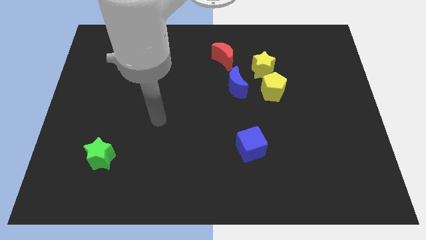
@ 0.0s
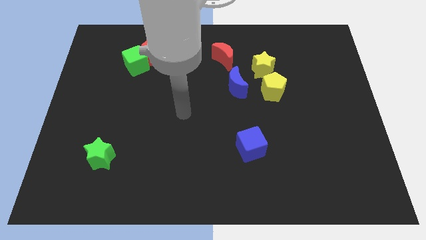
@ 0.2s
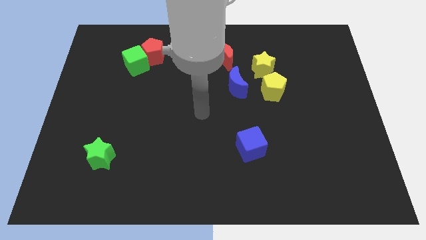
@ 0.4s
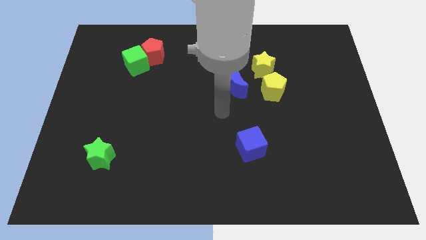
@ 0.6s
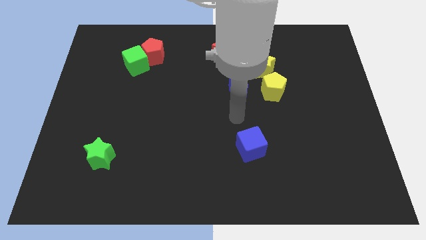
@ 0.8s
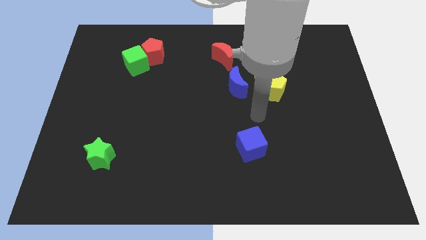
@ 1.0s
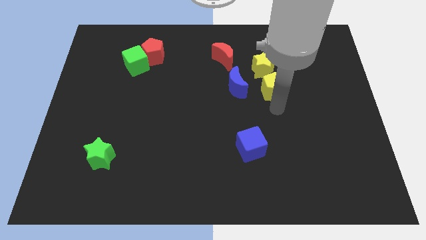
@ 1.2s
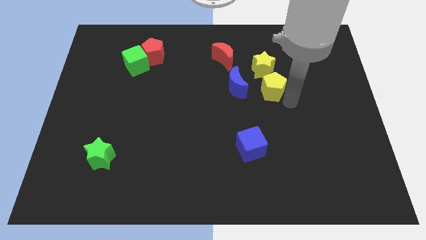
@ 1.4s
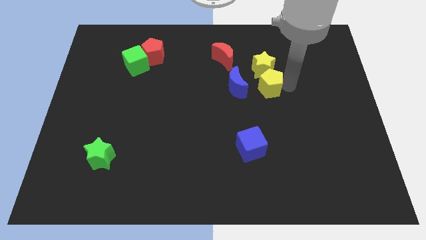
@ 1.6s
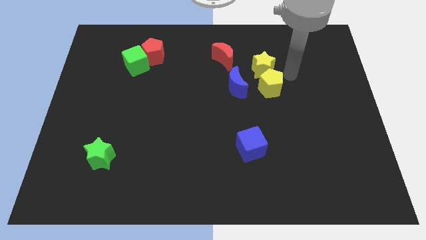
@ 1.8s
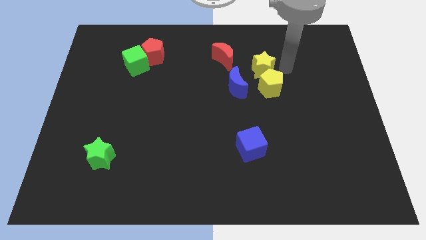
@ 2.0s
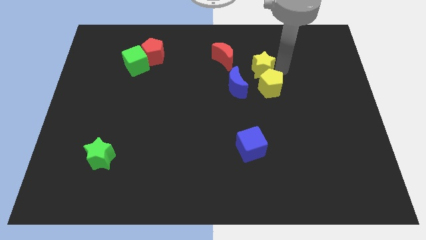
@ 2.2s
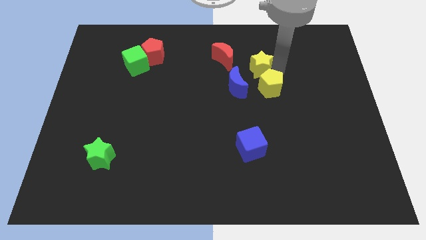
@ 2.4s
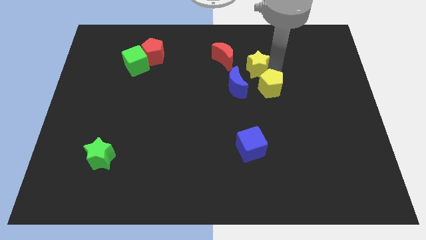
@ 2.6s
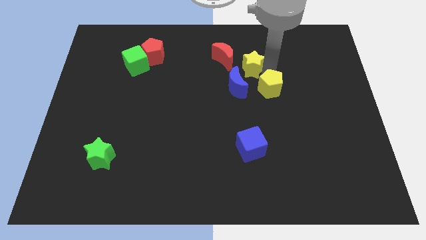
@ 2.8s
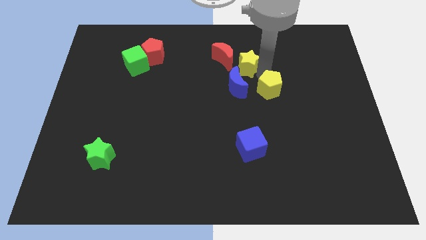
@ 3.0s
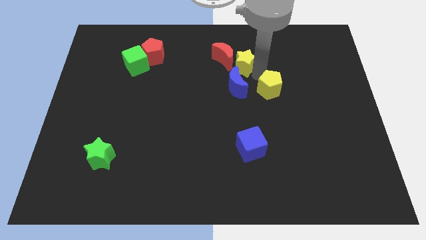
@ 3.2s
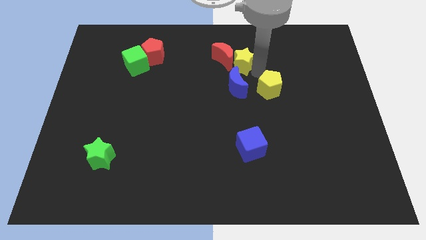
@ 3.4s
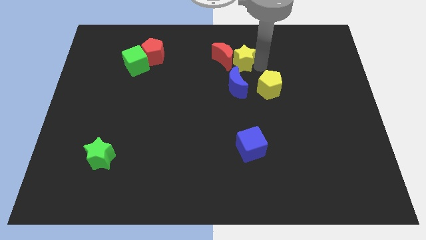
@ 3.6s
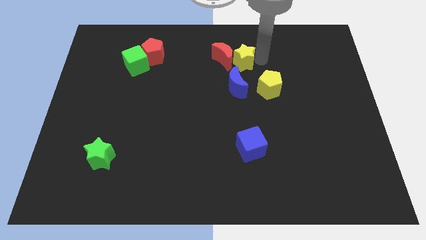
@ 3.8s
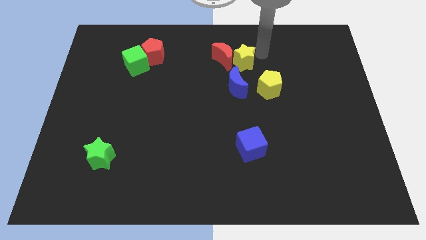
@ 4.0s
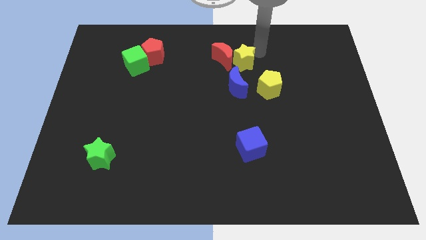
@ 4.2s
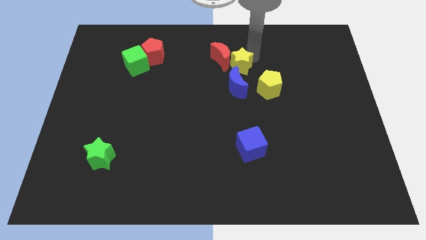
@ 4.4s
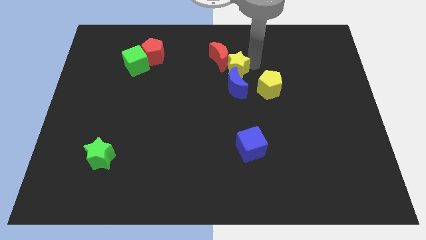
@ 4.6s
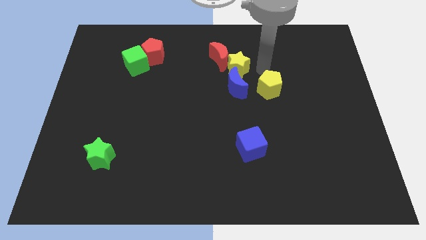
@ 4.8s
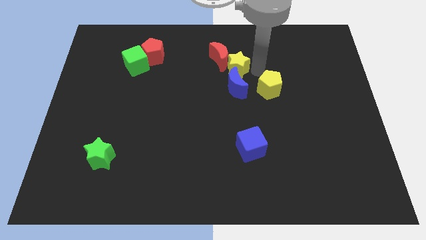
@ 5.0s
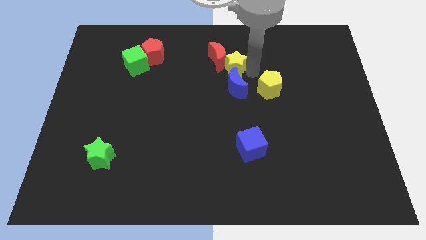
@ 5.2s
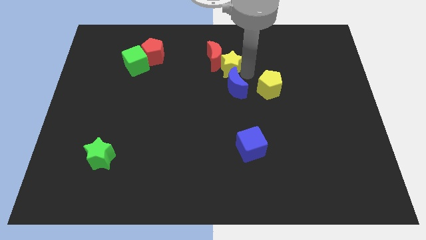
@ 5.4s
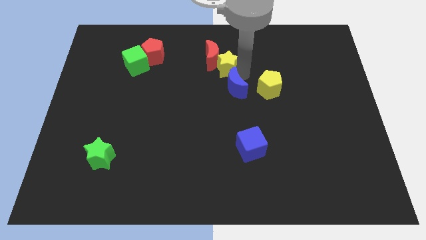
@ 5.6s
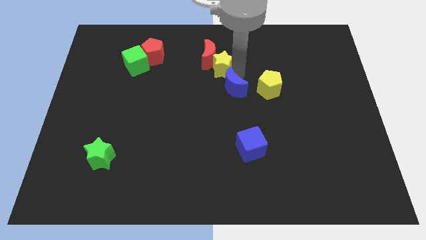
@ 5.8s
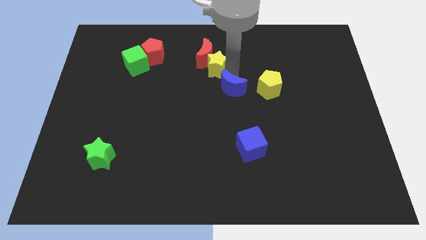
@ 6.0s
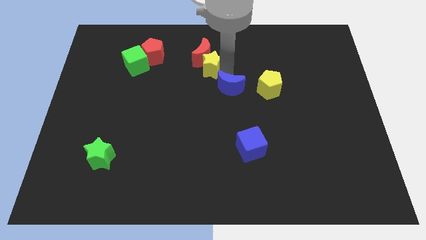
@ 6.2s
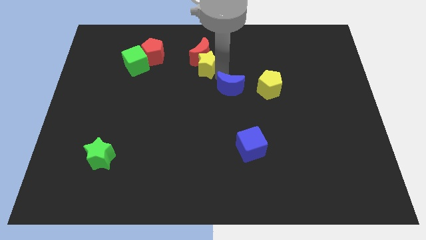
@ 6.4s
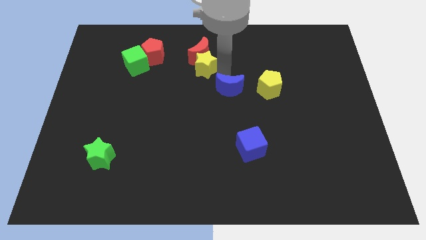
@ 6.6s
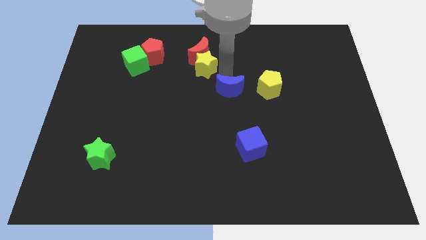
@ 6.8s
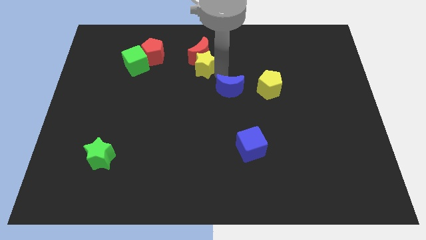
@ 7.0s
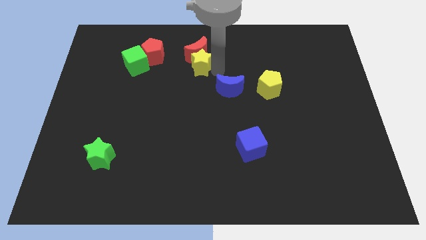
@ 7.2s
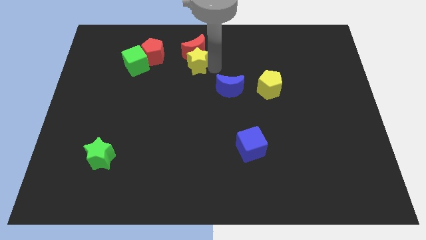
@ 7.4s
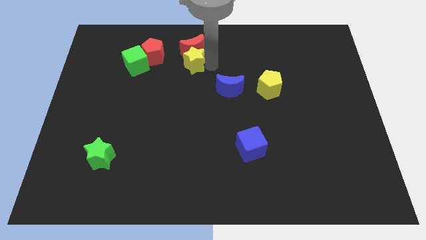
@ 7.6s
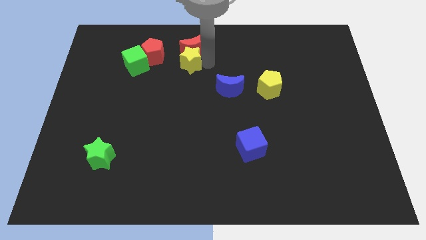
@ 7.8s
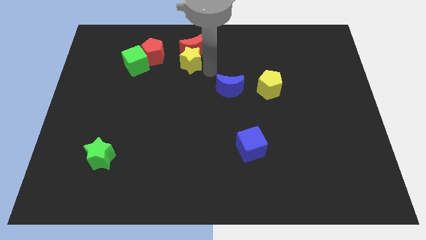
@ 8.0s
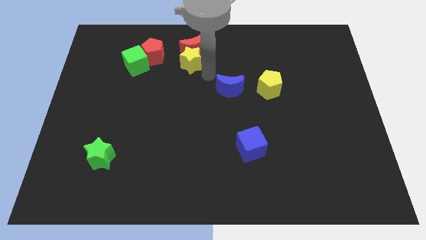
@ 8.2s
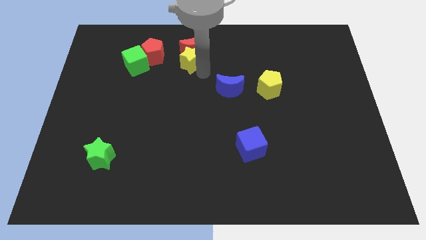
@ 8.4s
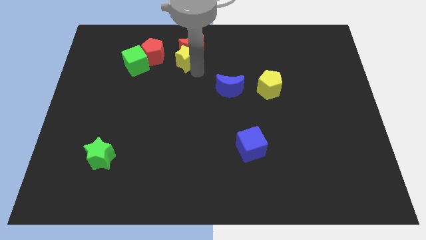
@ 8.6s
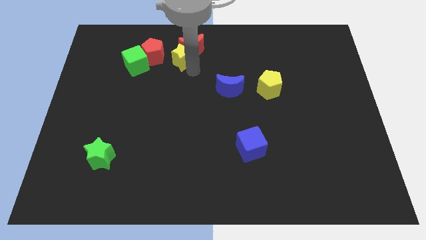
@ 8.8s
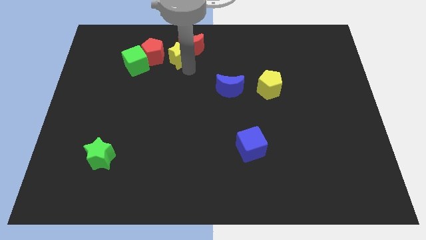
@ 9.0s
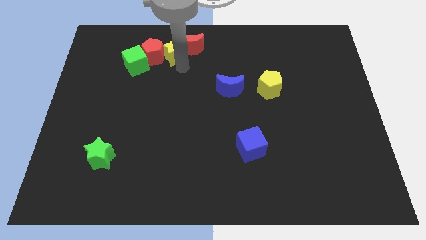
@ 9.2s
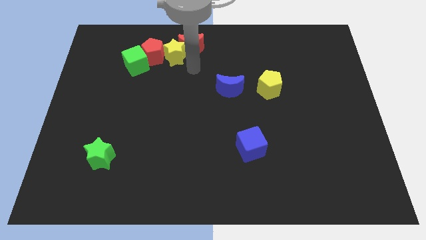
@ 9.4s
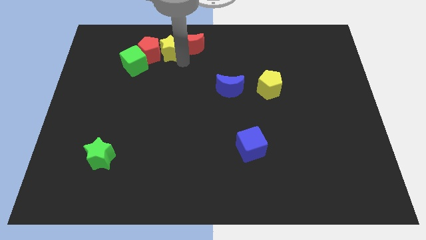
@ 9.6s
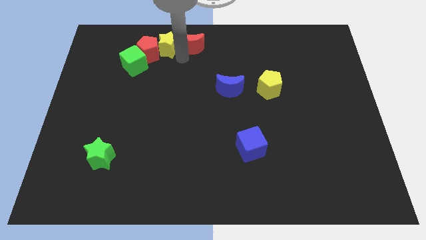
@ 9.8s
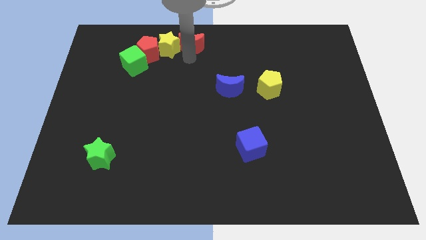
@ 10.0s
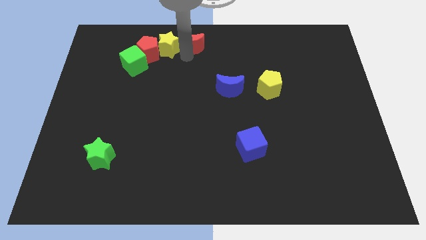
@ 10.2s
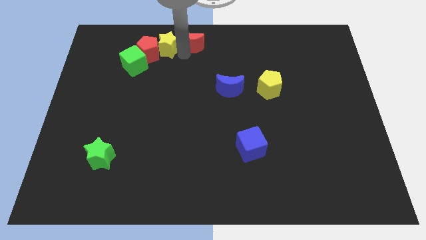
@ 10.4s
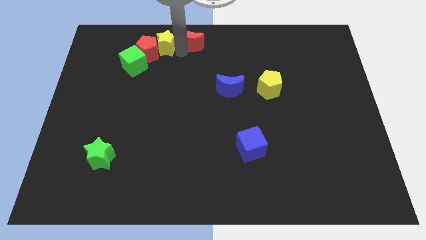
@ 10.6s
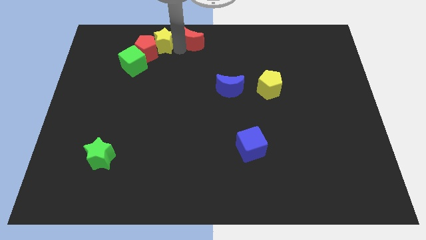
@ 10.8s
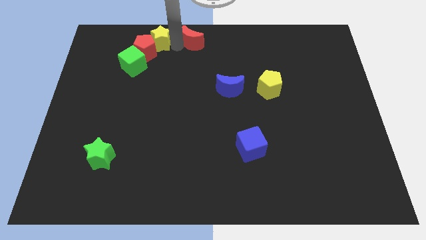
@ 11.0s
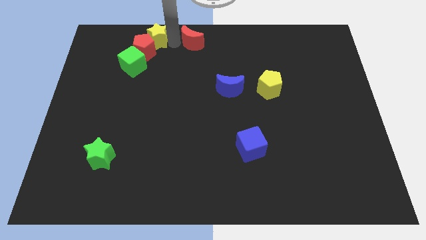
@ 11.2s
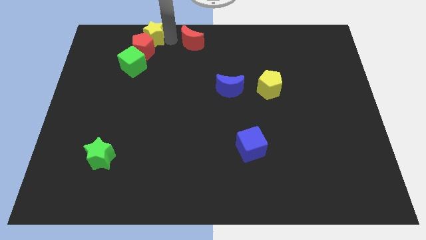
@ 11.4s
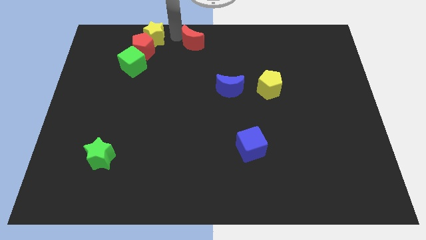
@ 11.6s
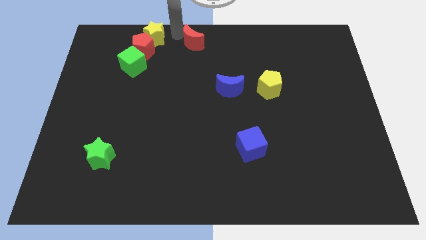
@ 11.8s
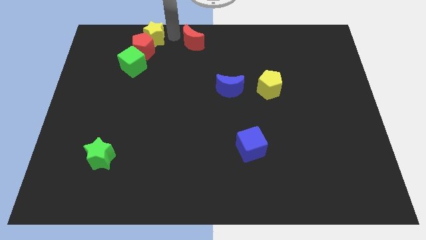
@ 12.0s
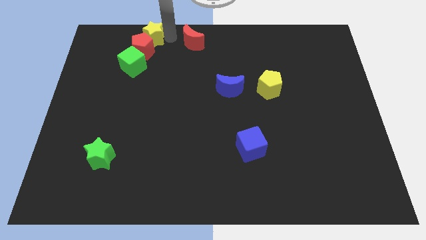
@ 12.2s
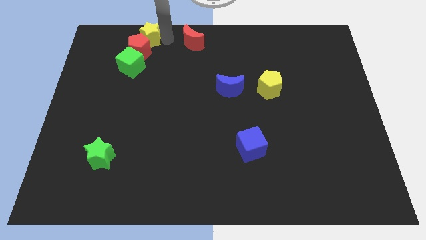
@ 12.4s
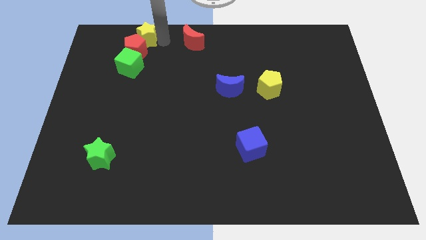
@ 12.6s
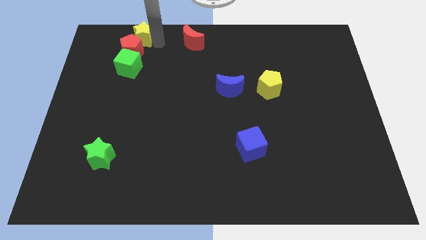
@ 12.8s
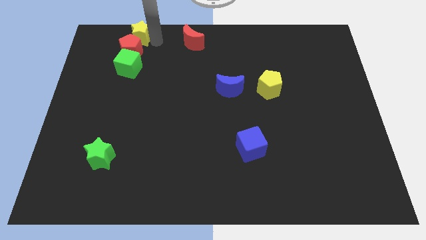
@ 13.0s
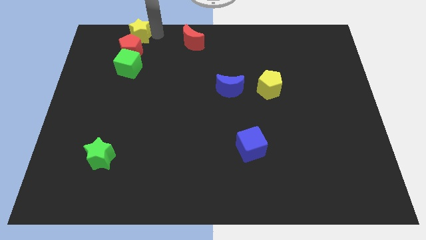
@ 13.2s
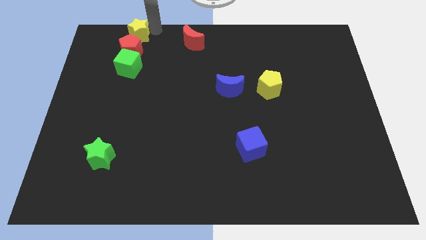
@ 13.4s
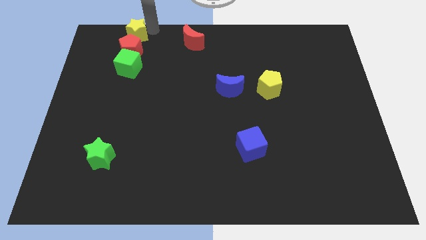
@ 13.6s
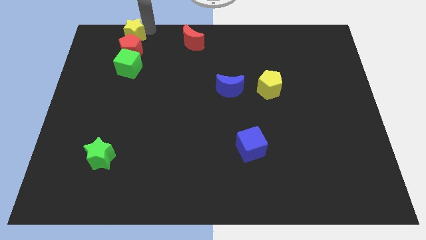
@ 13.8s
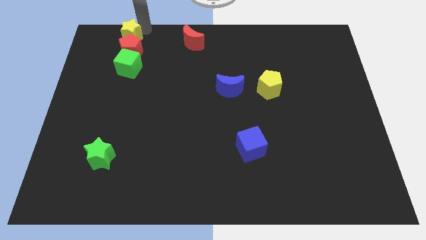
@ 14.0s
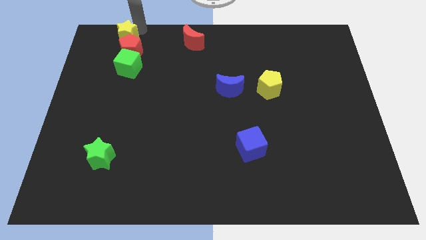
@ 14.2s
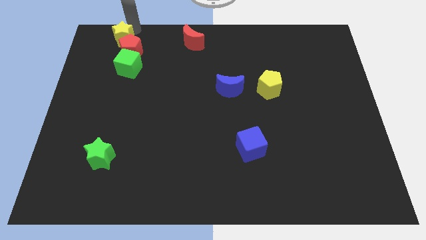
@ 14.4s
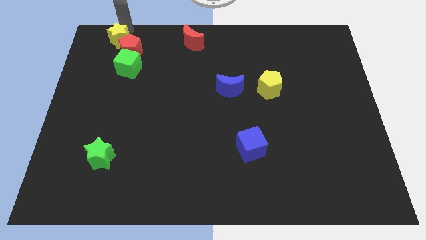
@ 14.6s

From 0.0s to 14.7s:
move the yellow star just left of the red pentagon

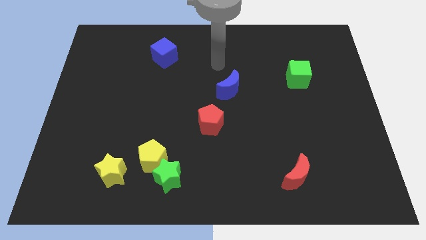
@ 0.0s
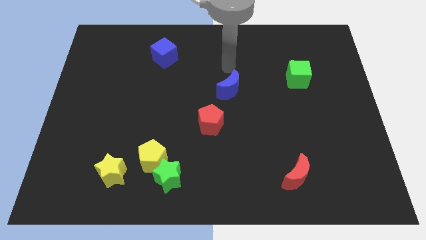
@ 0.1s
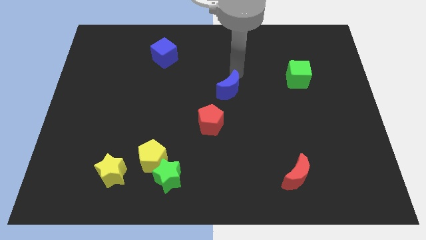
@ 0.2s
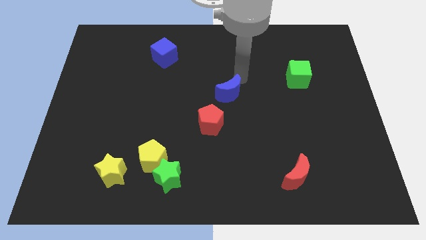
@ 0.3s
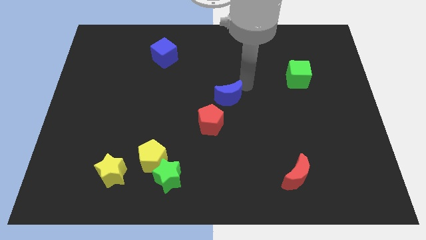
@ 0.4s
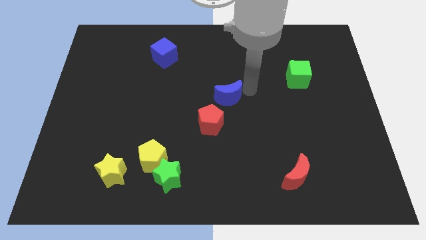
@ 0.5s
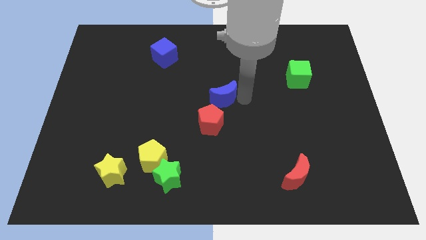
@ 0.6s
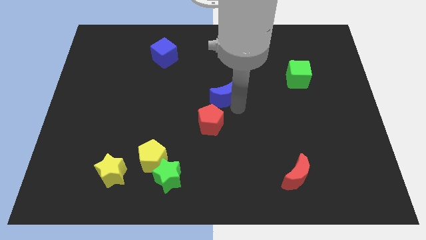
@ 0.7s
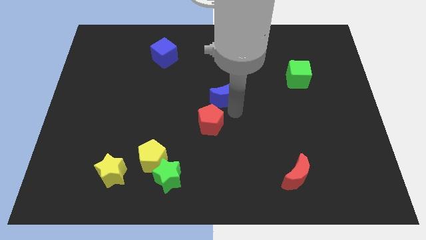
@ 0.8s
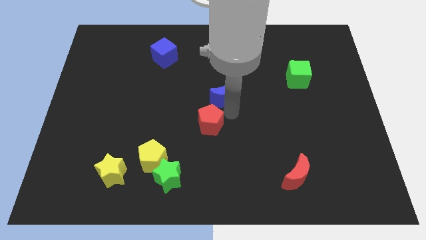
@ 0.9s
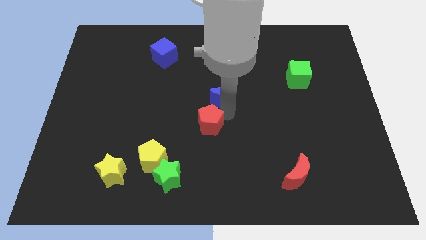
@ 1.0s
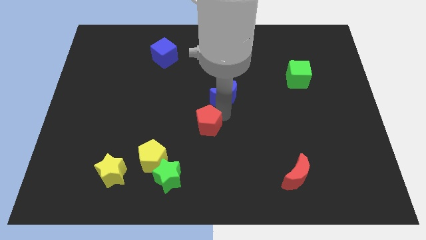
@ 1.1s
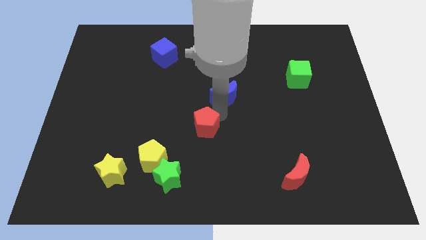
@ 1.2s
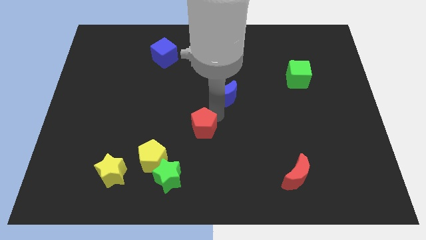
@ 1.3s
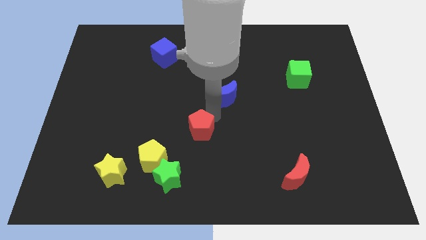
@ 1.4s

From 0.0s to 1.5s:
slide the red pentagon to the top right of the yellow pentagon
